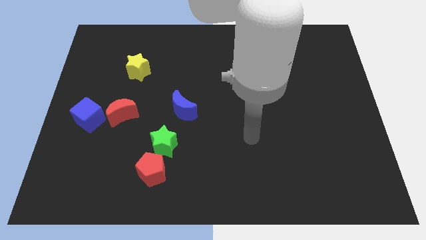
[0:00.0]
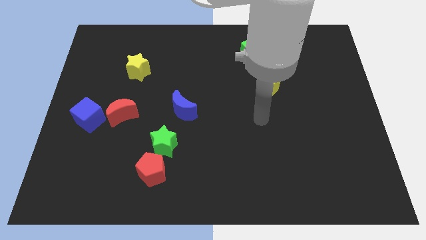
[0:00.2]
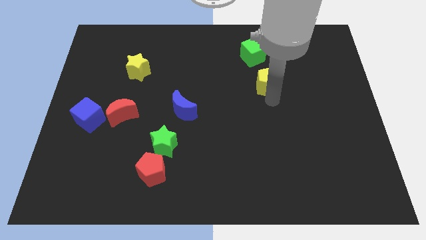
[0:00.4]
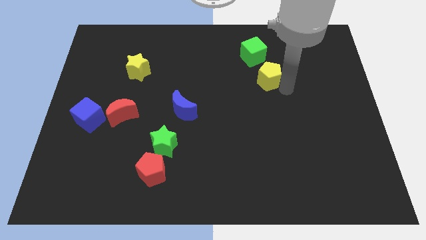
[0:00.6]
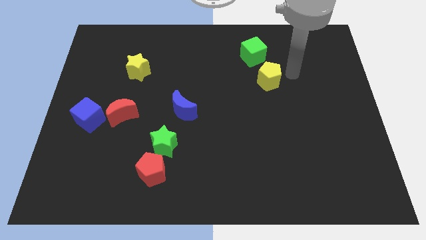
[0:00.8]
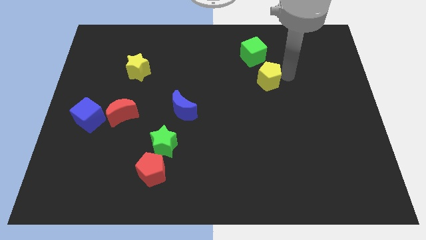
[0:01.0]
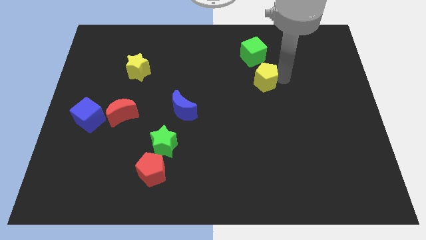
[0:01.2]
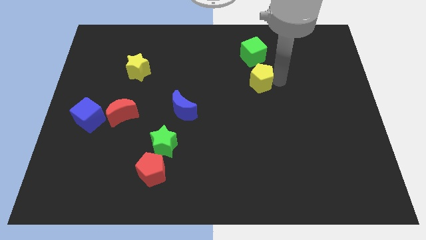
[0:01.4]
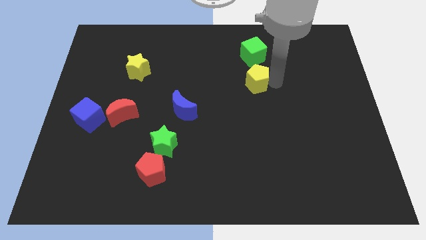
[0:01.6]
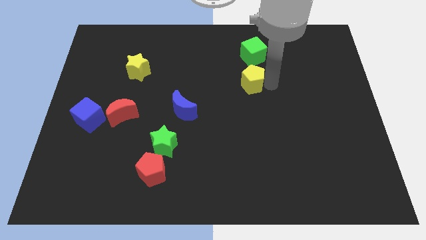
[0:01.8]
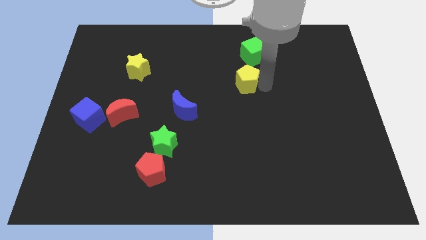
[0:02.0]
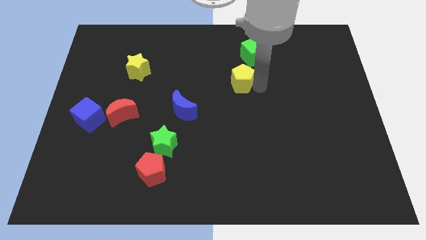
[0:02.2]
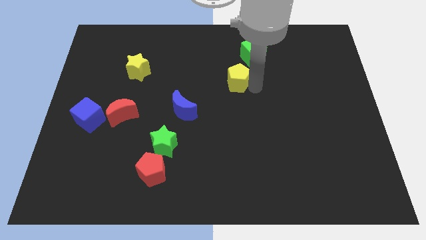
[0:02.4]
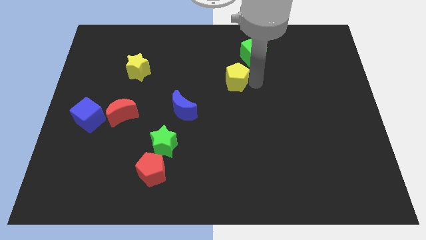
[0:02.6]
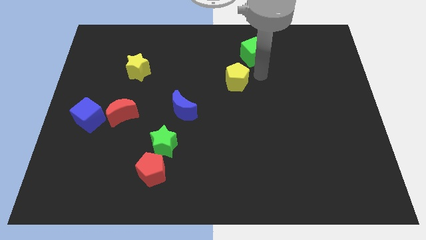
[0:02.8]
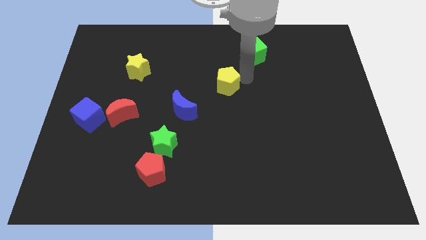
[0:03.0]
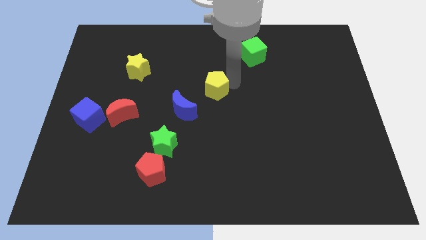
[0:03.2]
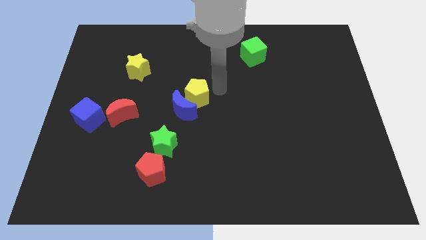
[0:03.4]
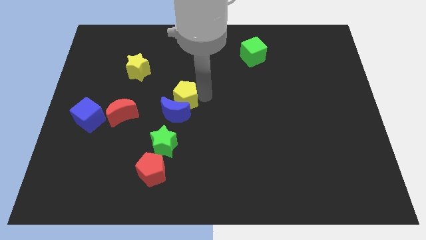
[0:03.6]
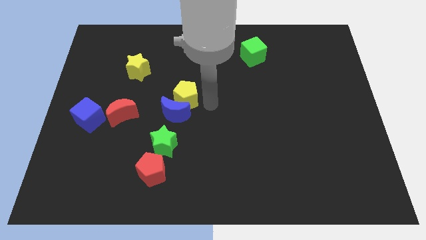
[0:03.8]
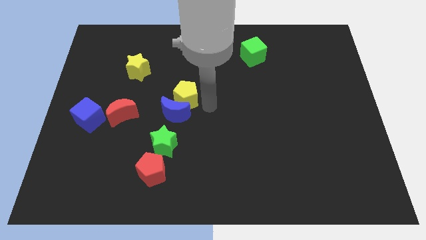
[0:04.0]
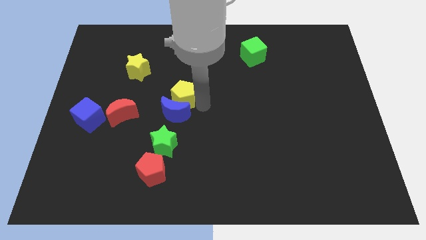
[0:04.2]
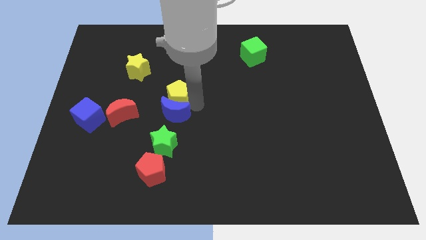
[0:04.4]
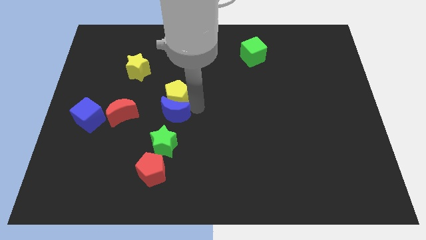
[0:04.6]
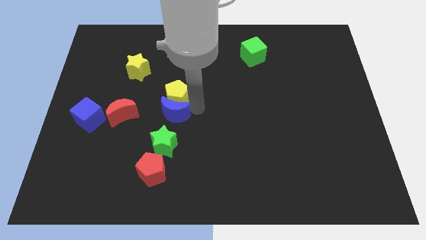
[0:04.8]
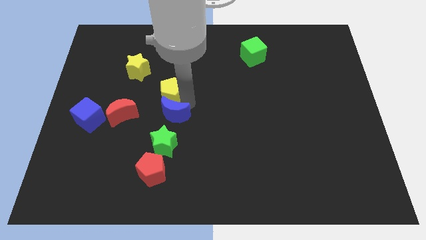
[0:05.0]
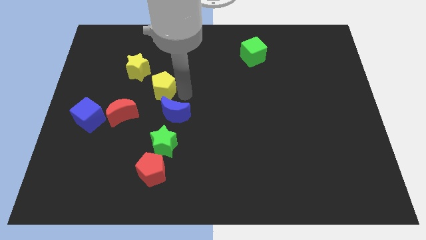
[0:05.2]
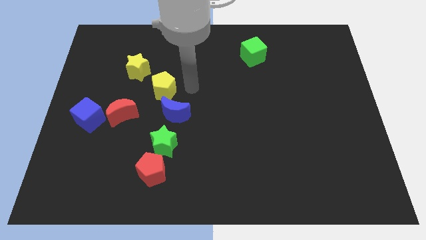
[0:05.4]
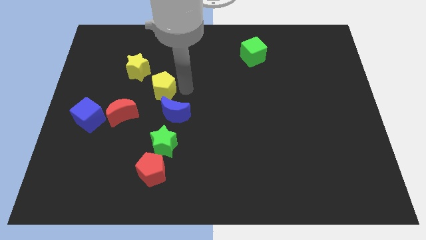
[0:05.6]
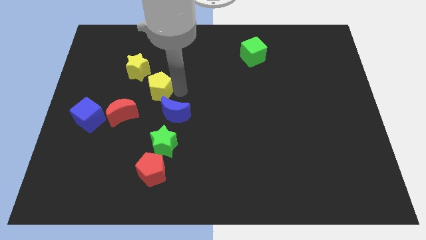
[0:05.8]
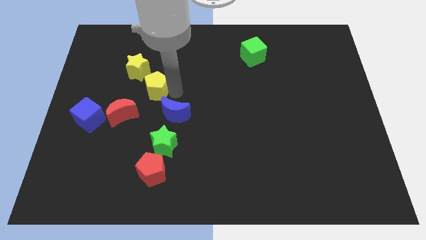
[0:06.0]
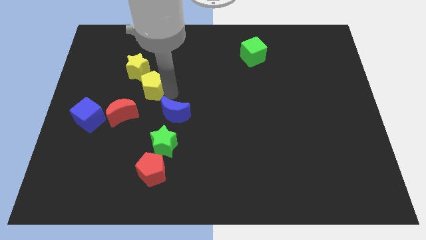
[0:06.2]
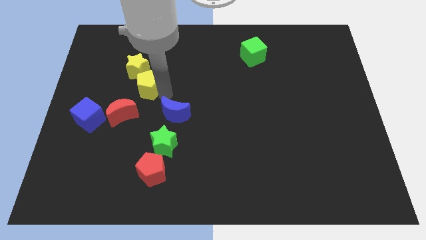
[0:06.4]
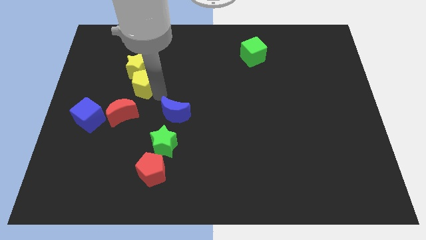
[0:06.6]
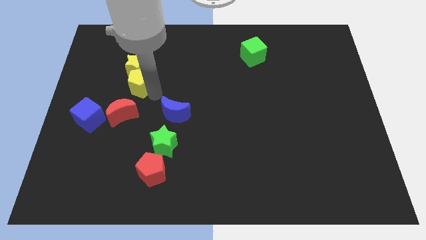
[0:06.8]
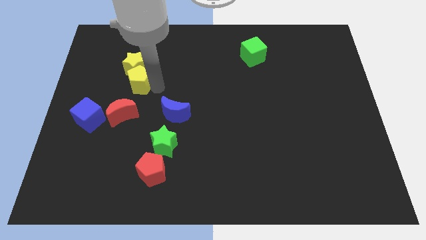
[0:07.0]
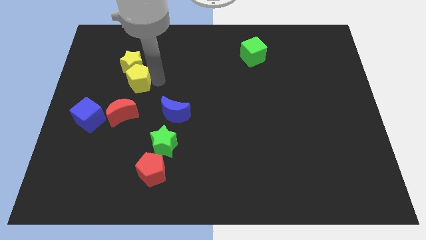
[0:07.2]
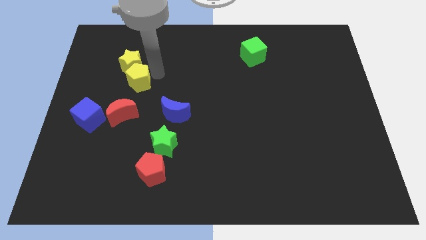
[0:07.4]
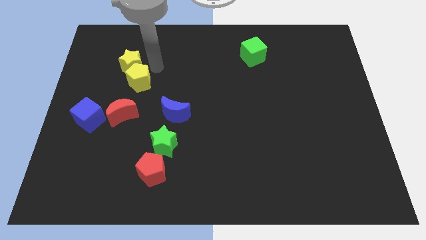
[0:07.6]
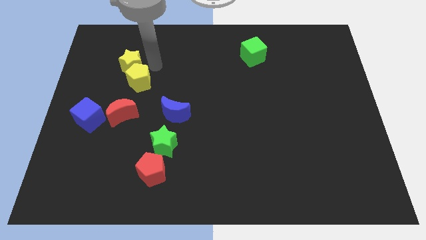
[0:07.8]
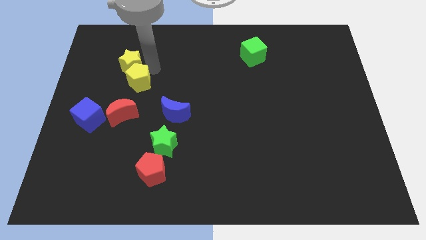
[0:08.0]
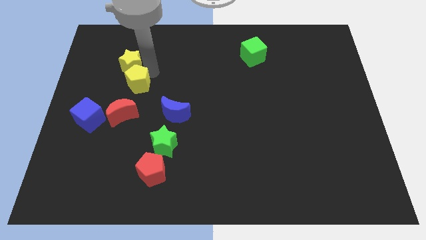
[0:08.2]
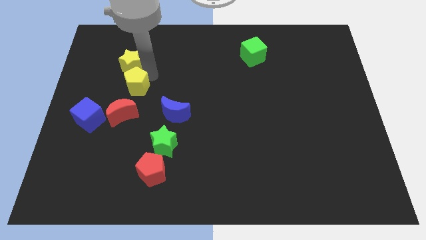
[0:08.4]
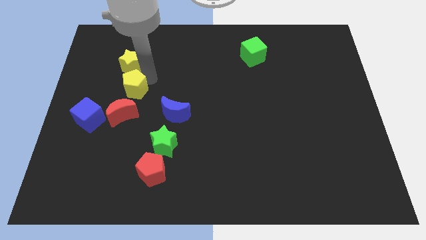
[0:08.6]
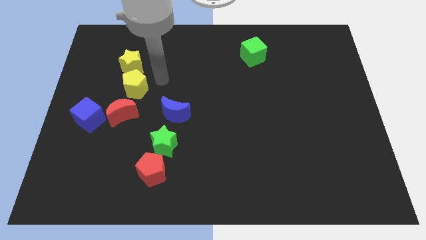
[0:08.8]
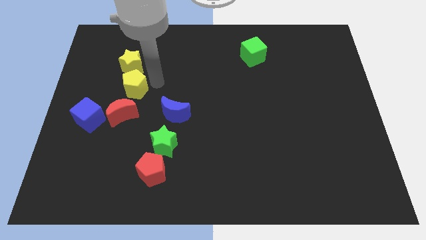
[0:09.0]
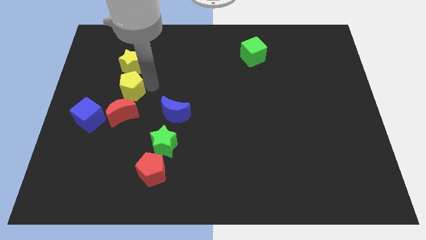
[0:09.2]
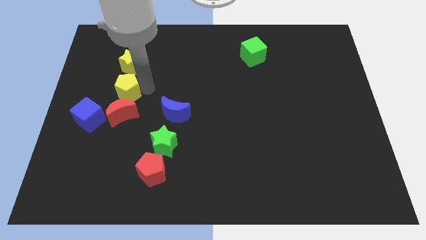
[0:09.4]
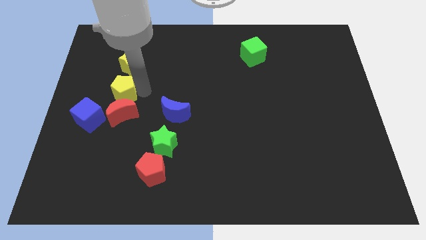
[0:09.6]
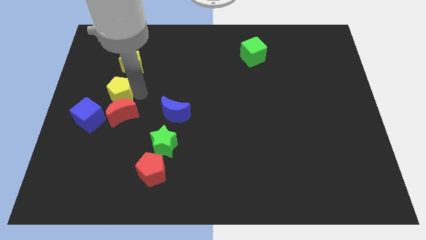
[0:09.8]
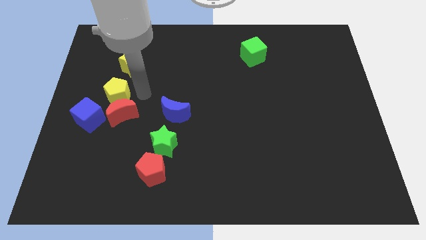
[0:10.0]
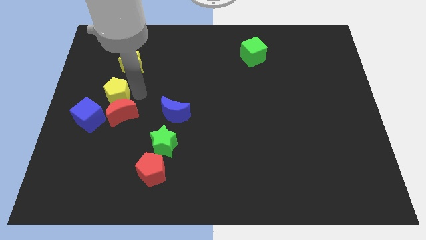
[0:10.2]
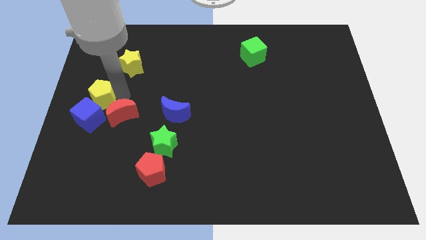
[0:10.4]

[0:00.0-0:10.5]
put the yellow pentagon to the left side

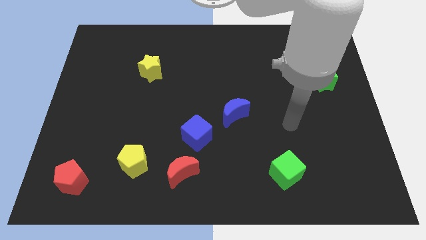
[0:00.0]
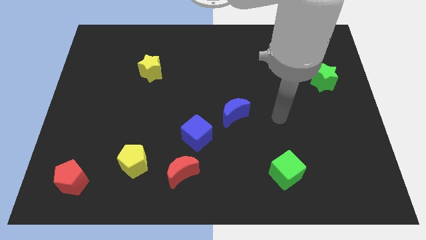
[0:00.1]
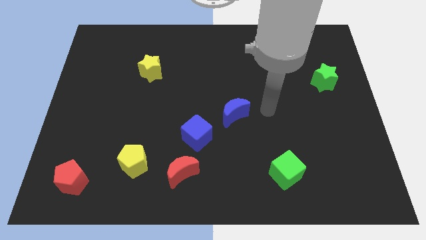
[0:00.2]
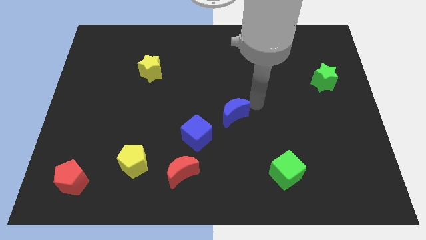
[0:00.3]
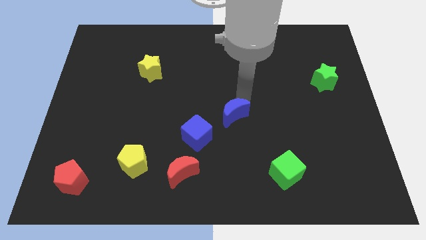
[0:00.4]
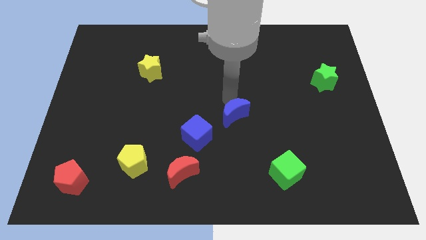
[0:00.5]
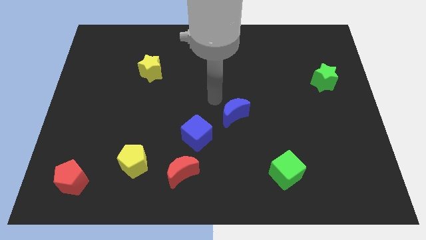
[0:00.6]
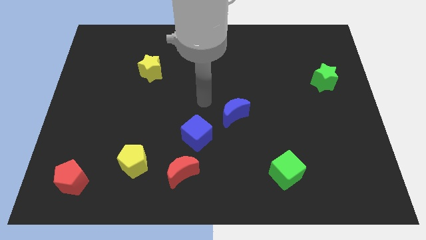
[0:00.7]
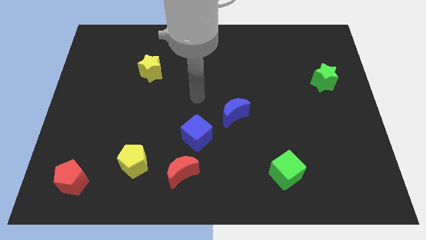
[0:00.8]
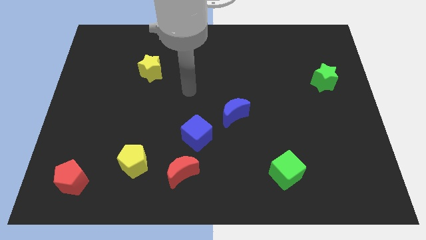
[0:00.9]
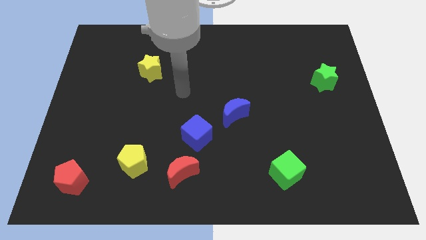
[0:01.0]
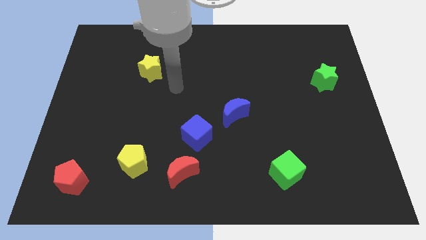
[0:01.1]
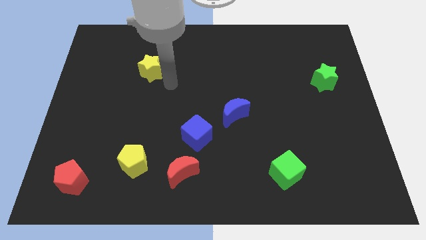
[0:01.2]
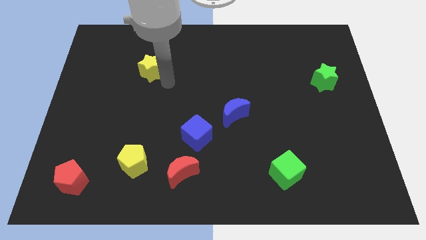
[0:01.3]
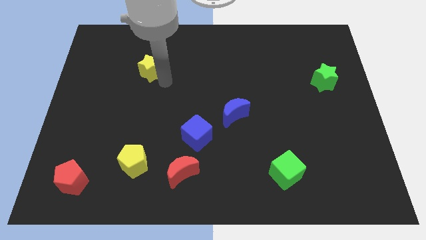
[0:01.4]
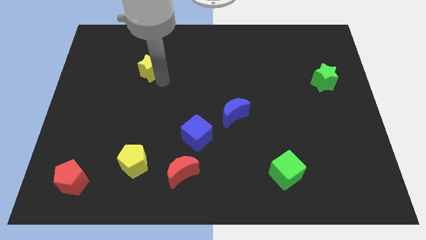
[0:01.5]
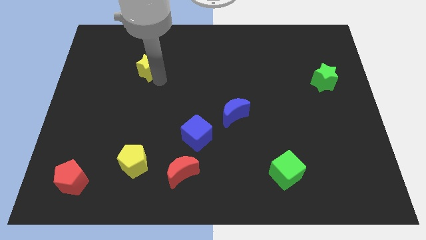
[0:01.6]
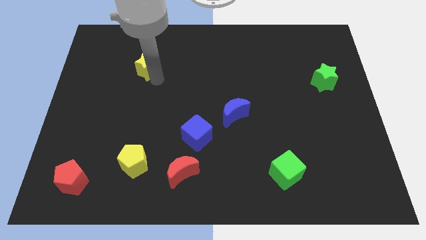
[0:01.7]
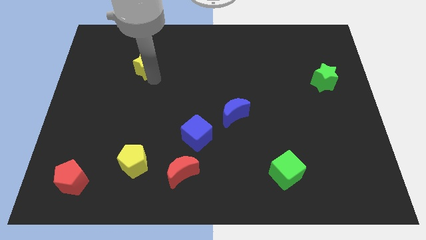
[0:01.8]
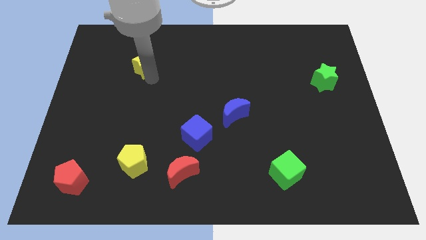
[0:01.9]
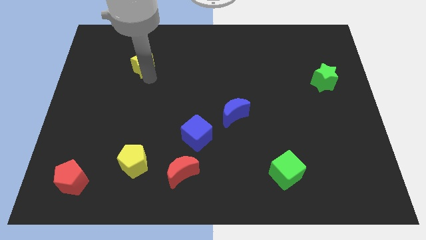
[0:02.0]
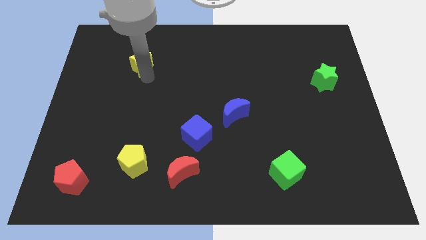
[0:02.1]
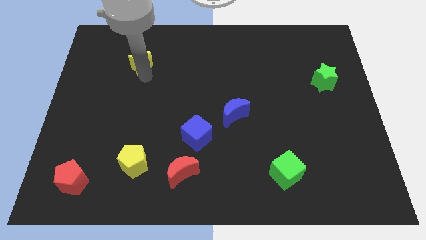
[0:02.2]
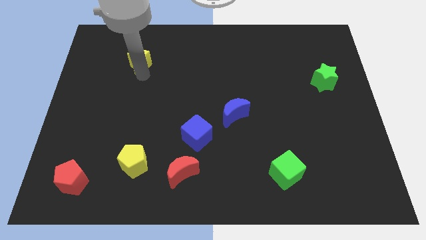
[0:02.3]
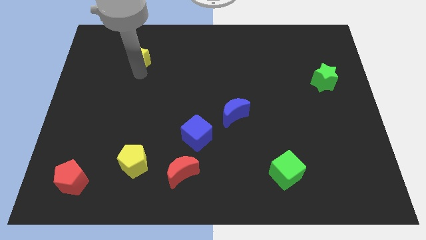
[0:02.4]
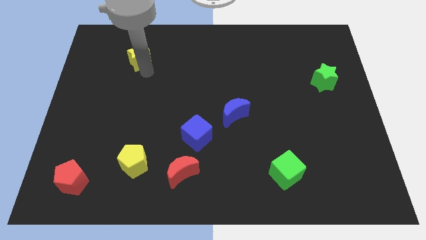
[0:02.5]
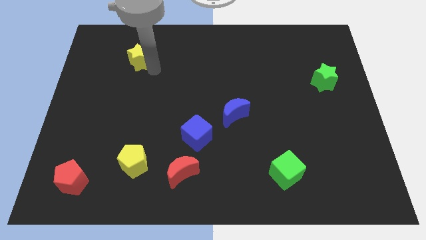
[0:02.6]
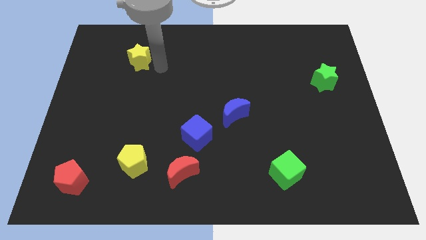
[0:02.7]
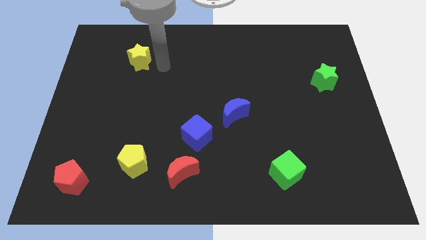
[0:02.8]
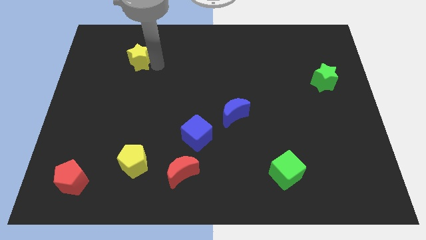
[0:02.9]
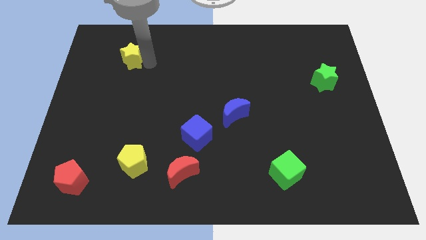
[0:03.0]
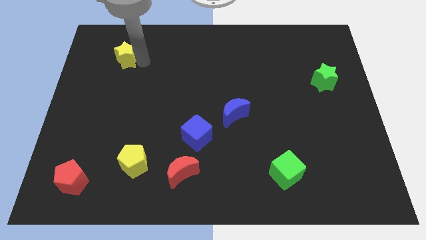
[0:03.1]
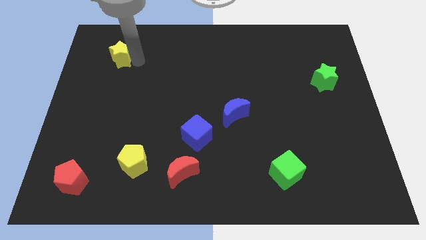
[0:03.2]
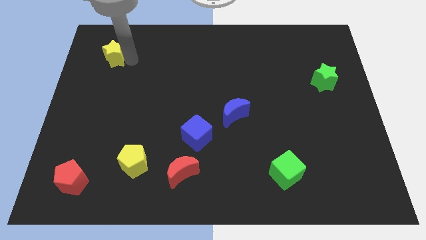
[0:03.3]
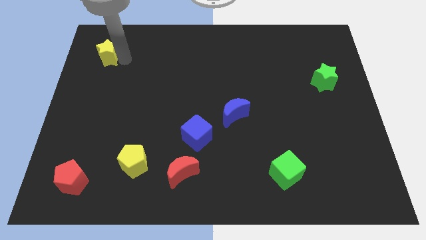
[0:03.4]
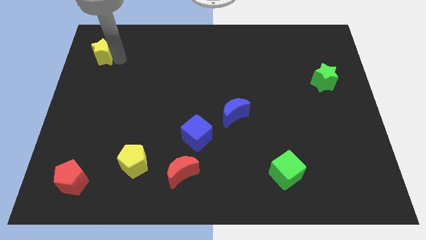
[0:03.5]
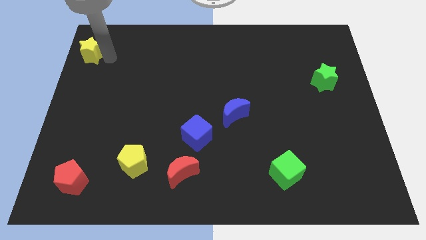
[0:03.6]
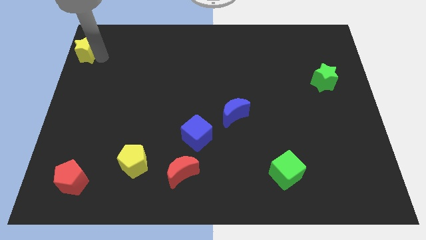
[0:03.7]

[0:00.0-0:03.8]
push the yellow star to the top left corner
